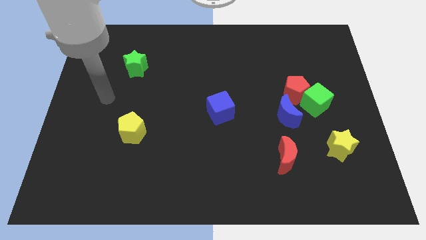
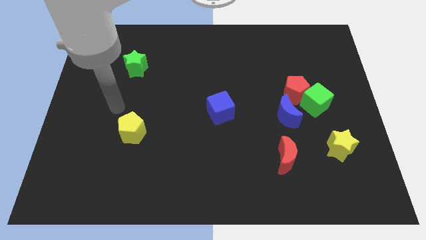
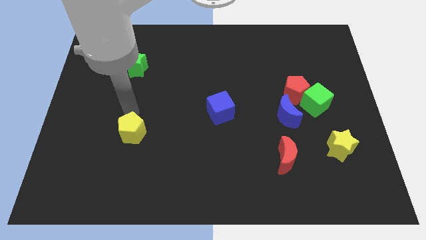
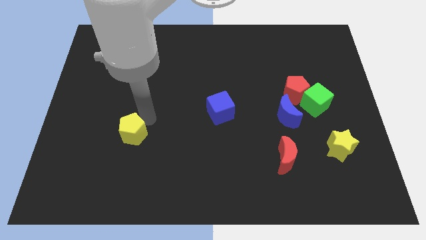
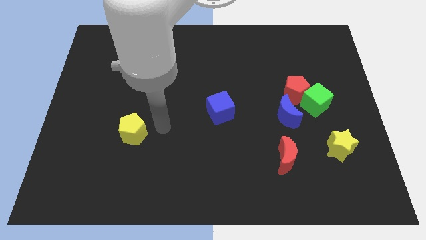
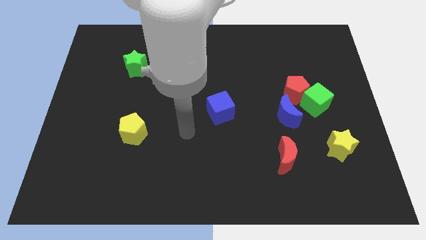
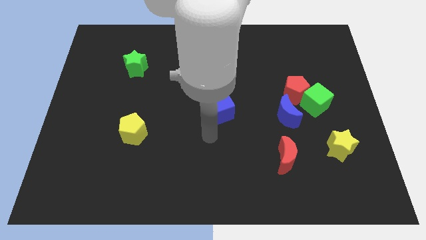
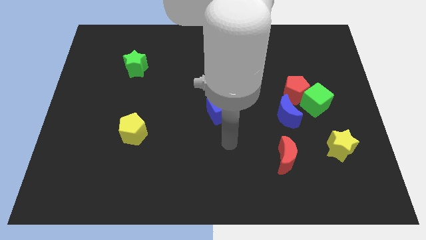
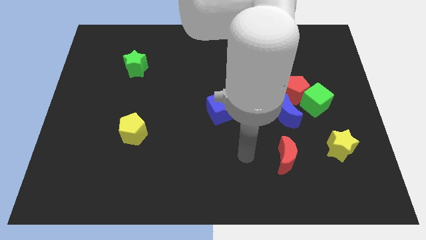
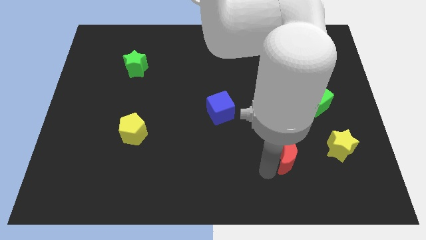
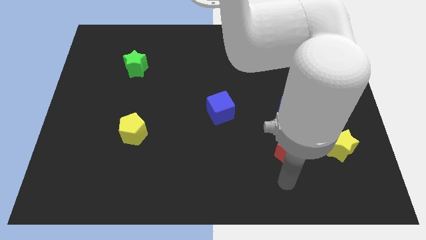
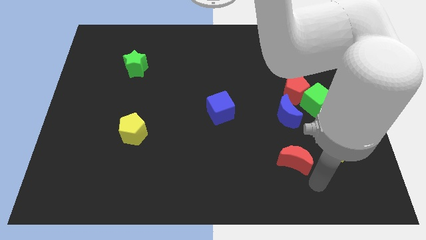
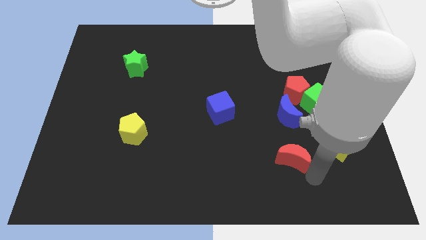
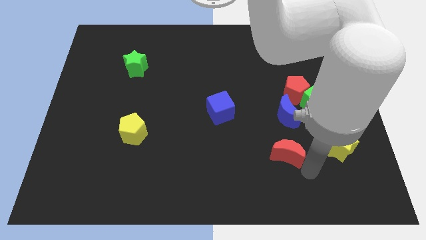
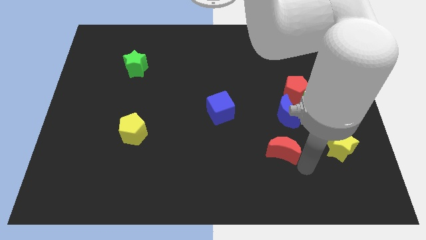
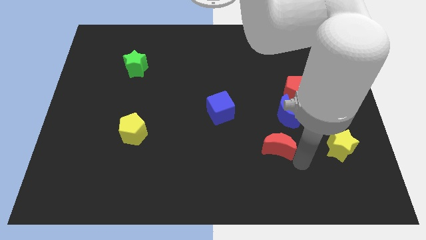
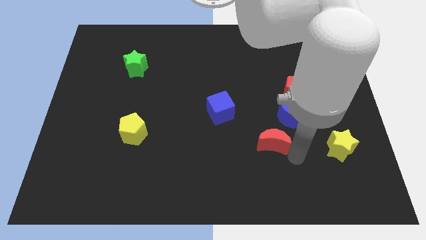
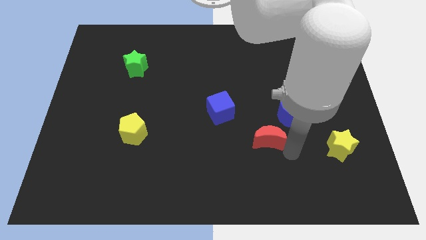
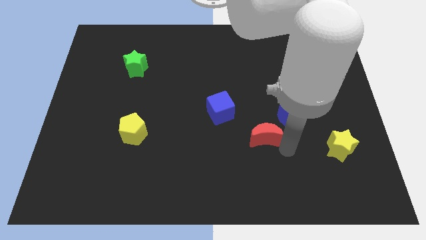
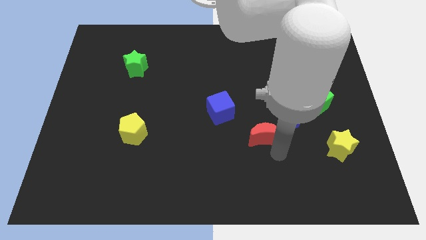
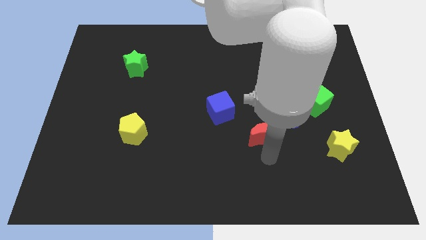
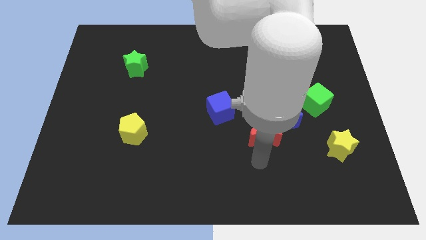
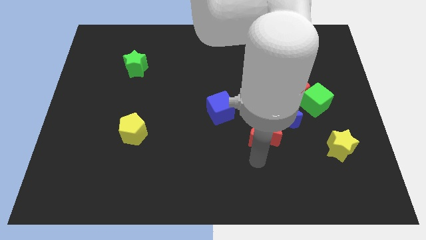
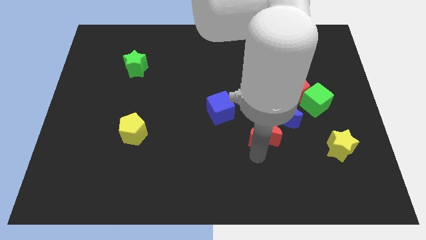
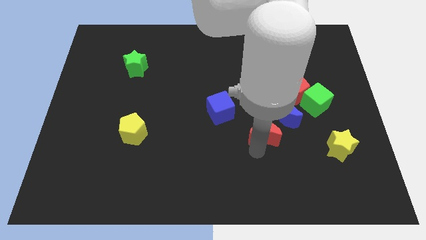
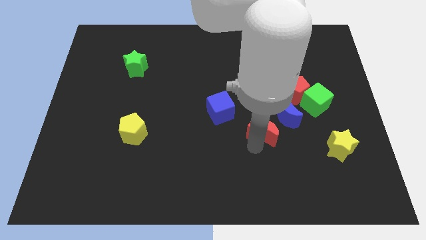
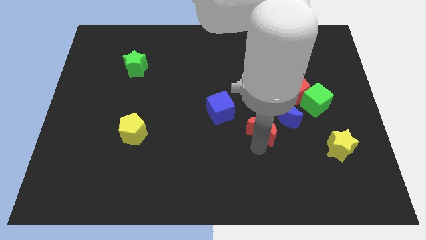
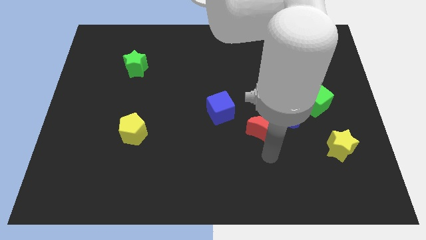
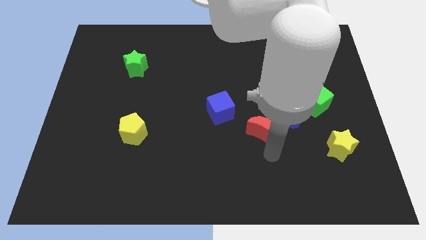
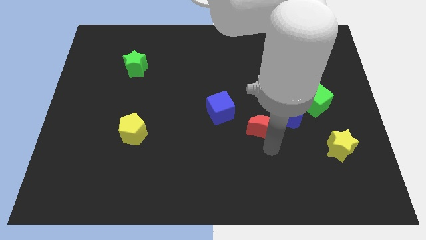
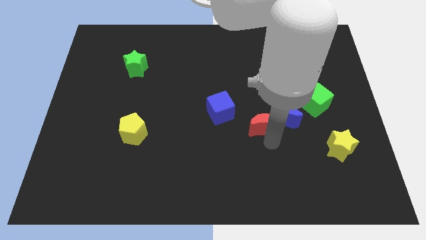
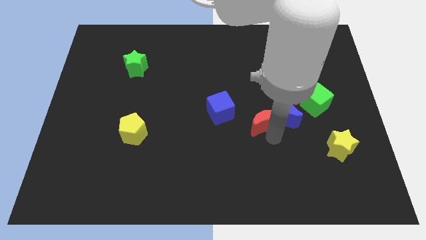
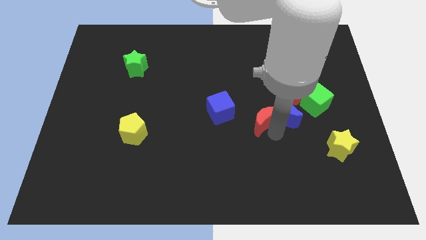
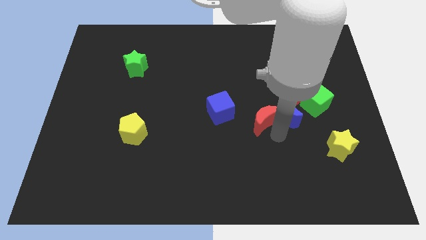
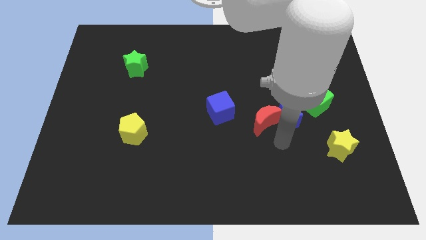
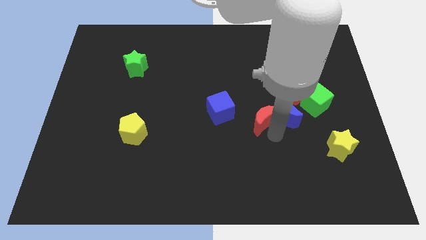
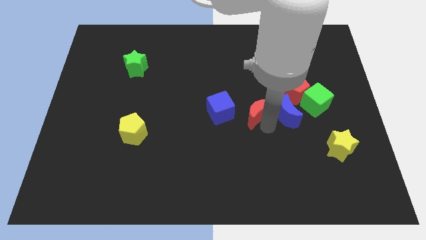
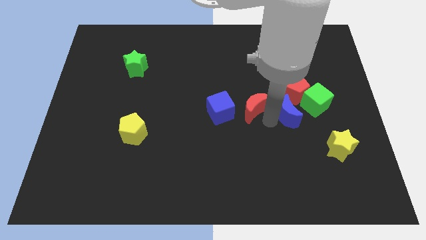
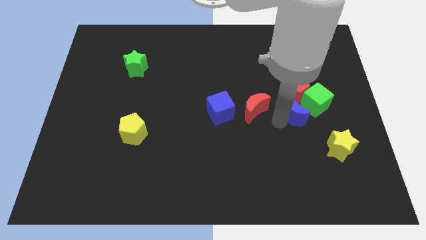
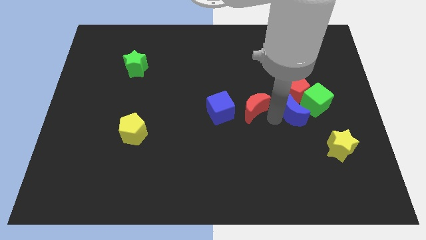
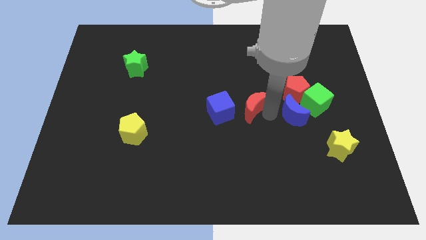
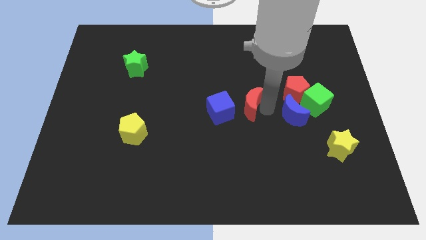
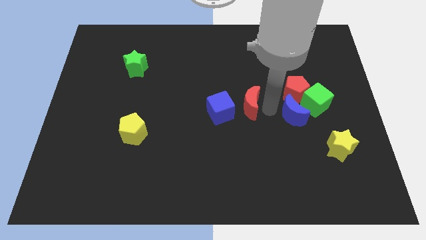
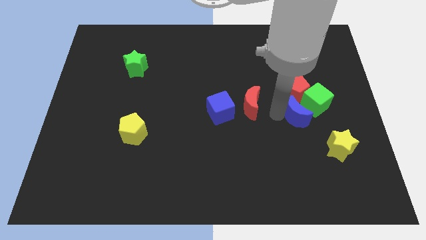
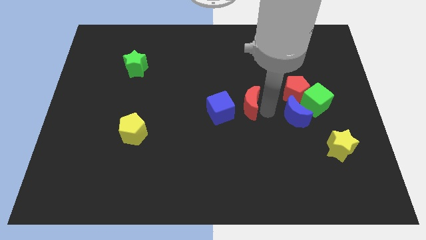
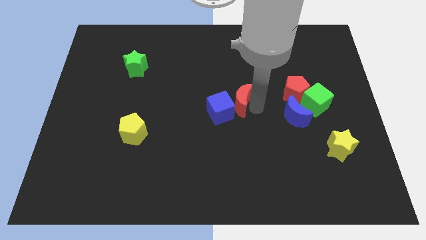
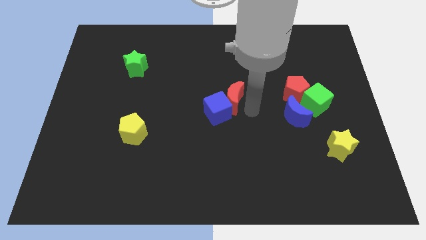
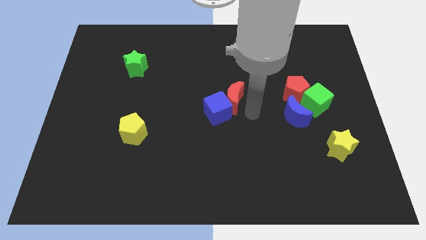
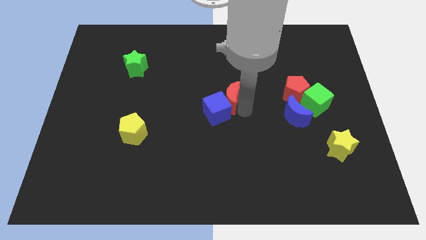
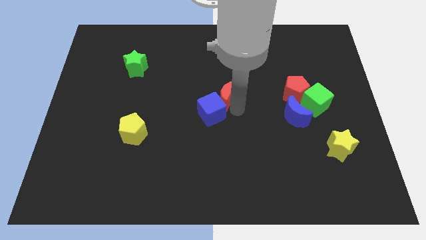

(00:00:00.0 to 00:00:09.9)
move the red moon up and to the left

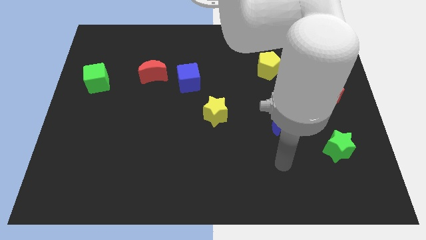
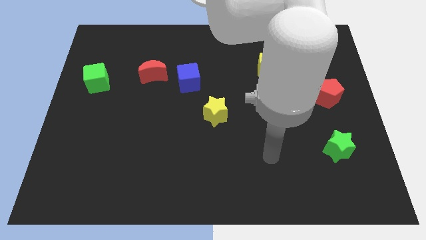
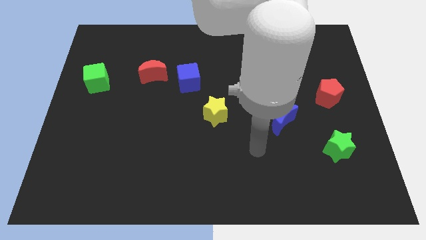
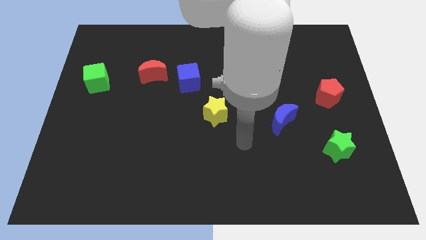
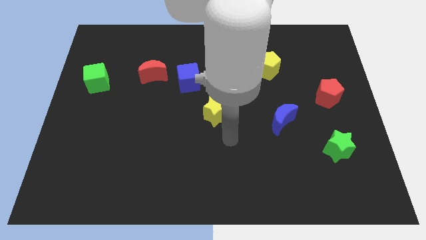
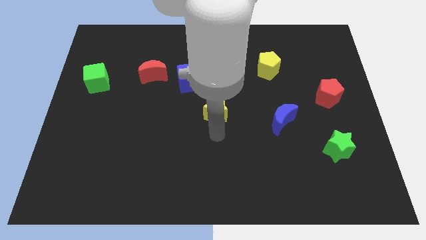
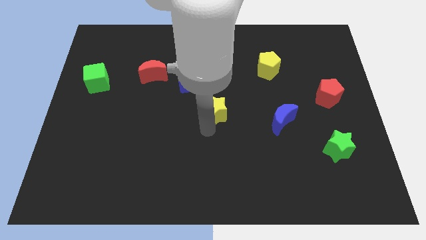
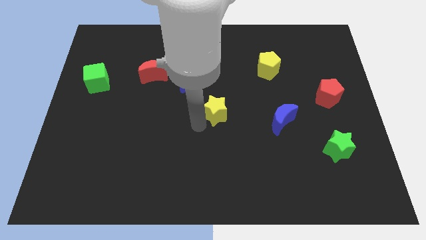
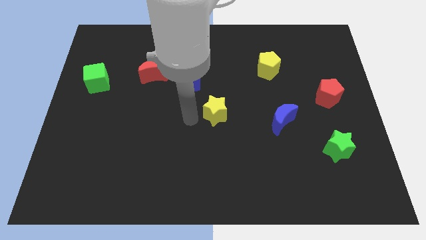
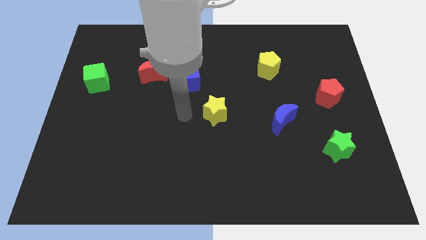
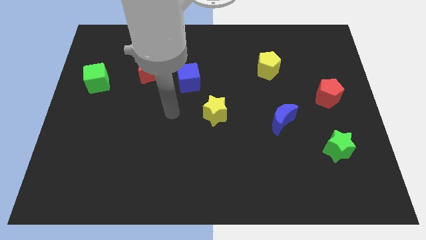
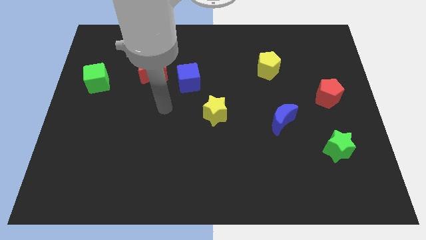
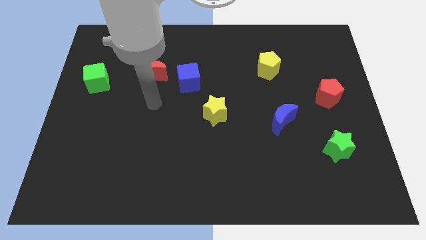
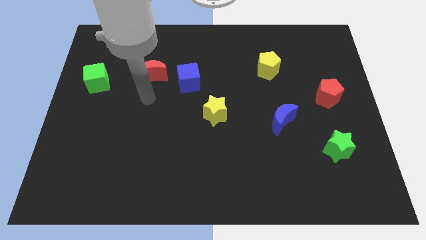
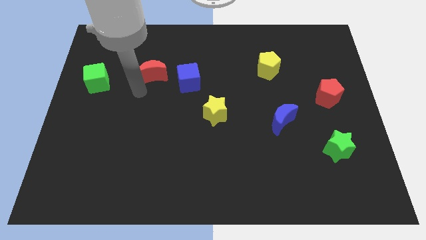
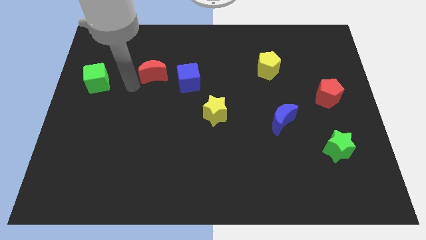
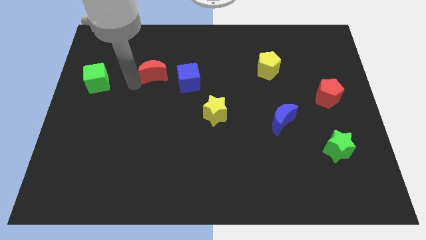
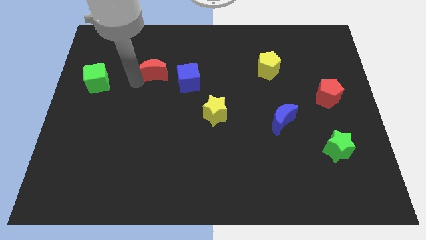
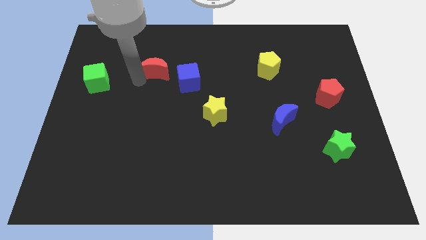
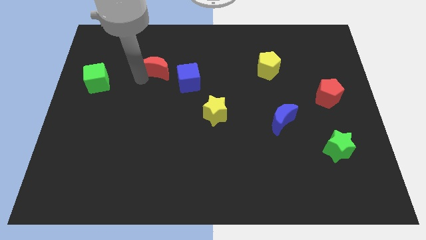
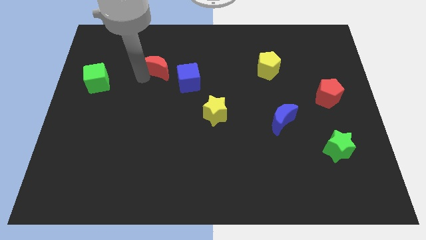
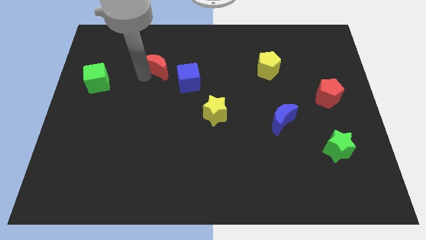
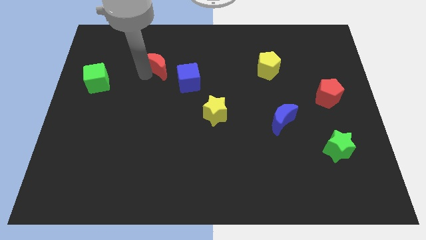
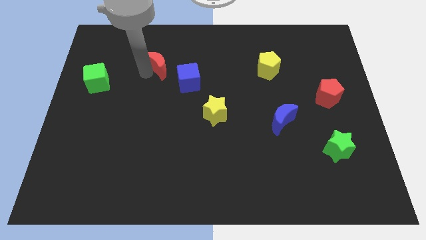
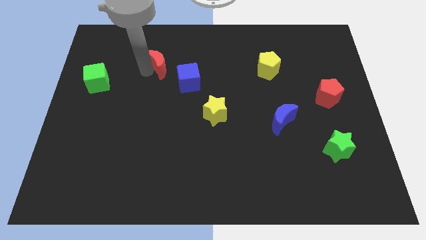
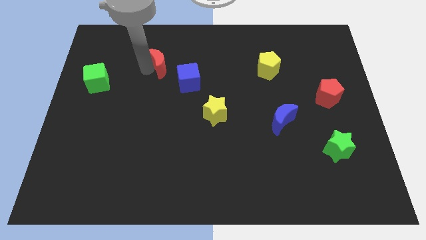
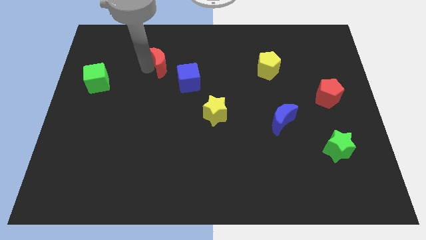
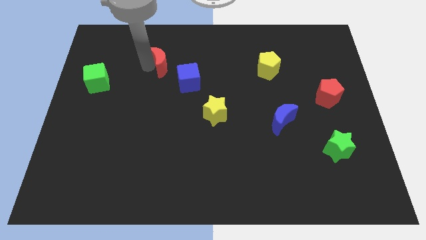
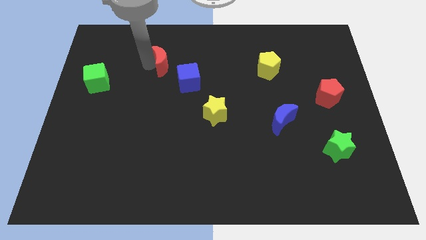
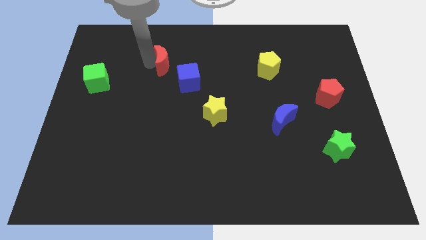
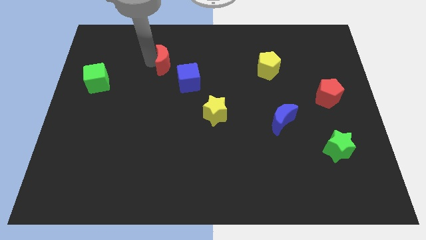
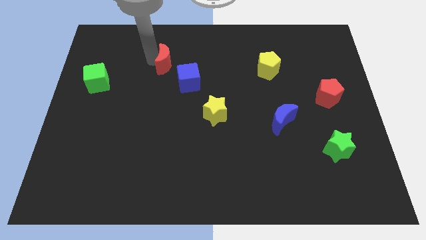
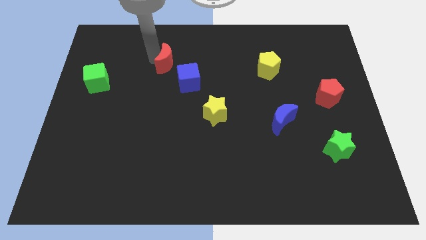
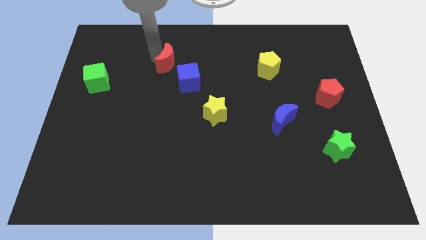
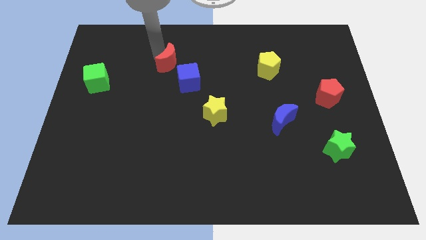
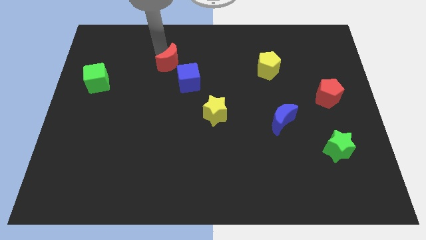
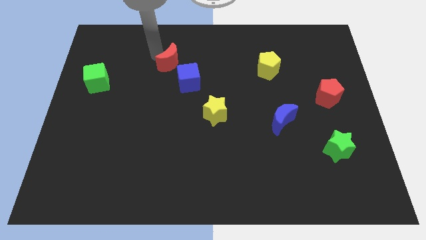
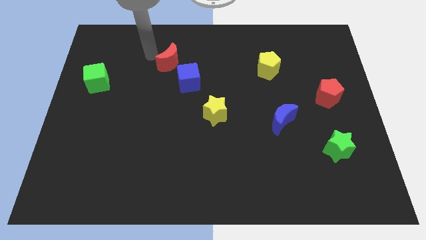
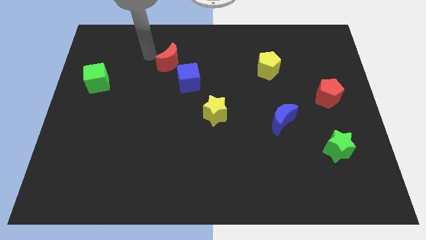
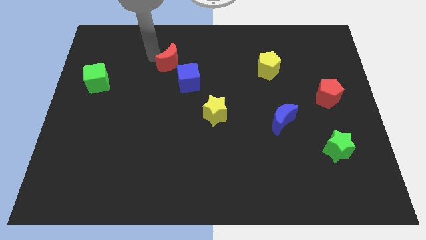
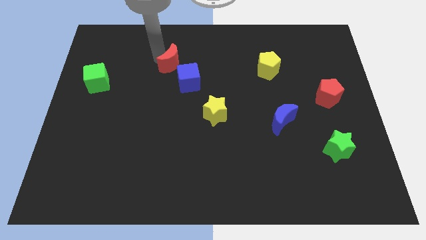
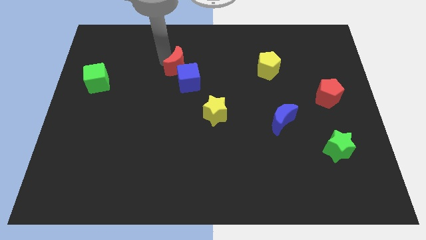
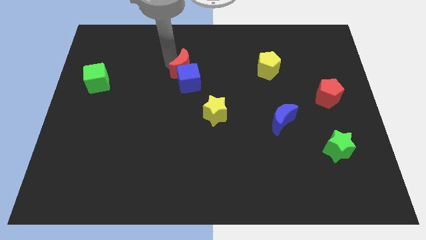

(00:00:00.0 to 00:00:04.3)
move the red moon somewhat to the right
